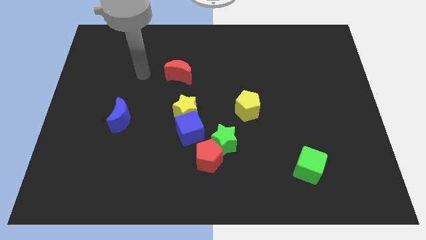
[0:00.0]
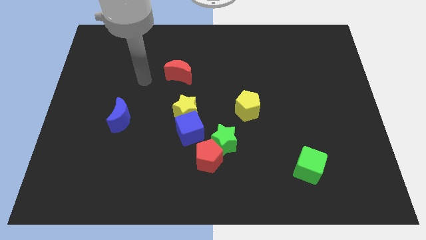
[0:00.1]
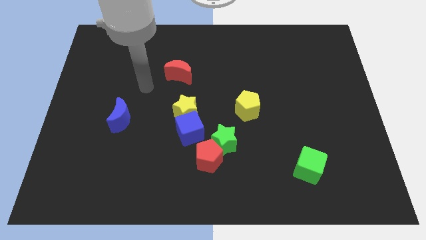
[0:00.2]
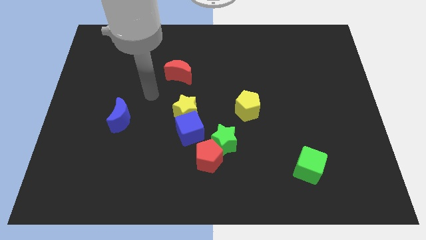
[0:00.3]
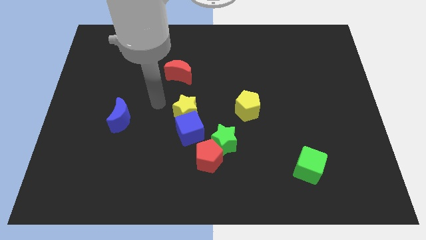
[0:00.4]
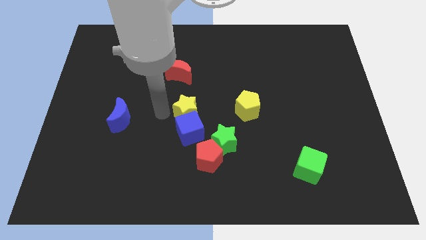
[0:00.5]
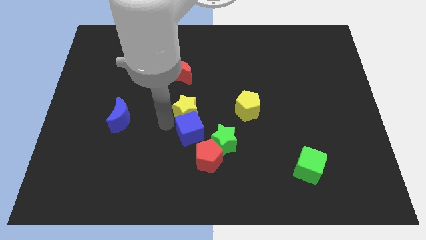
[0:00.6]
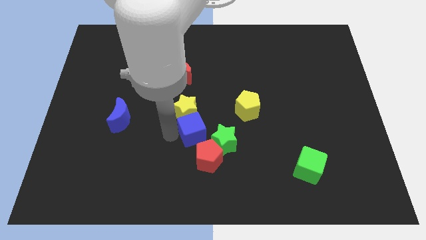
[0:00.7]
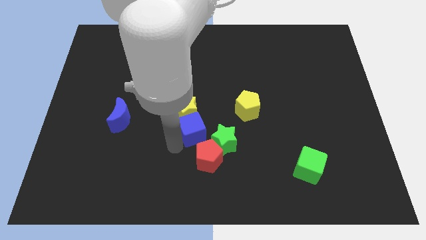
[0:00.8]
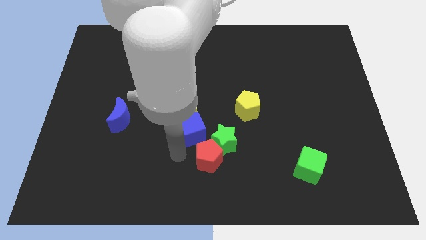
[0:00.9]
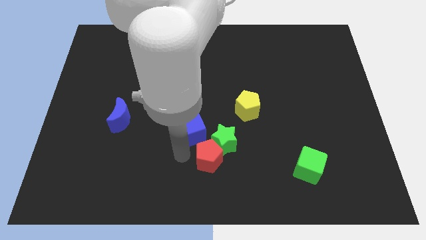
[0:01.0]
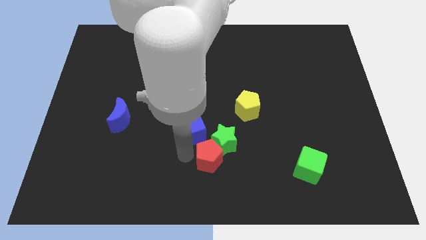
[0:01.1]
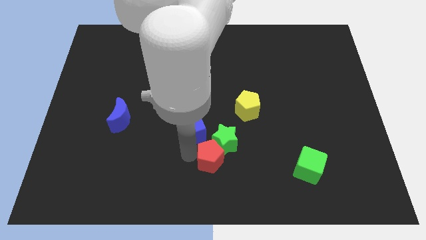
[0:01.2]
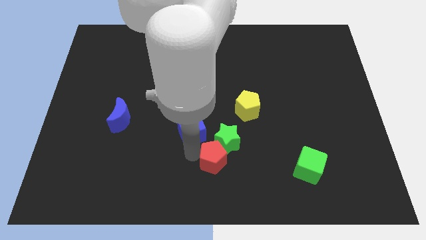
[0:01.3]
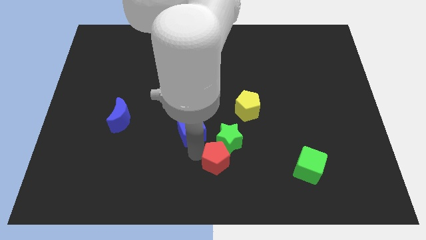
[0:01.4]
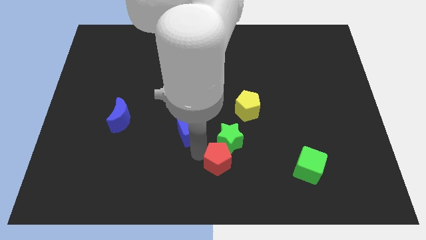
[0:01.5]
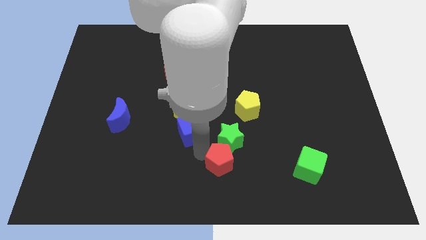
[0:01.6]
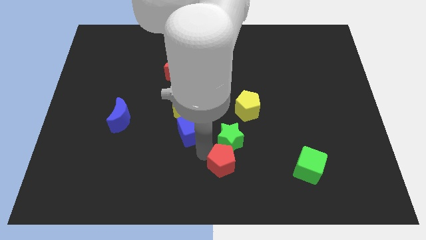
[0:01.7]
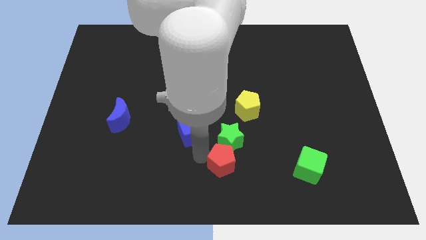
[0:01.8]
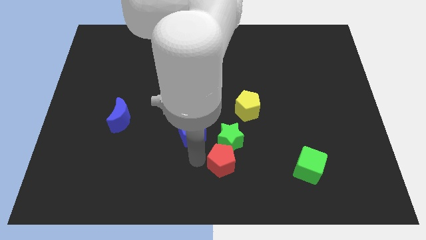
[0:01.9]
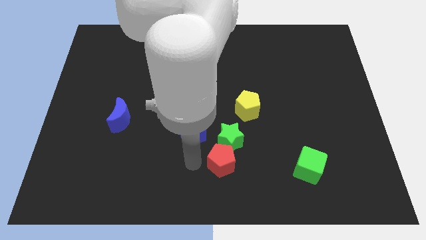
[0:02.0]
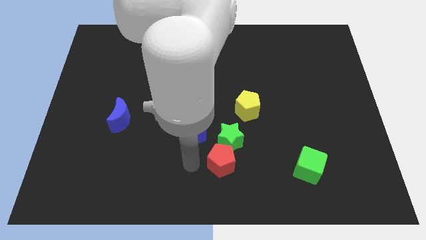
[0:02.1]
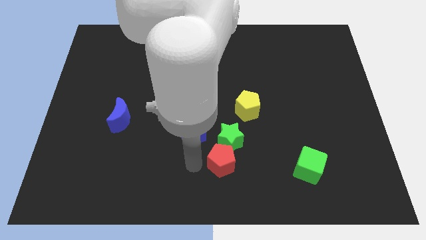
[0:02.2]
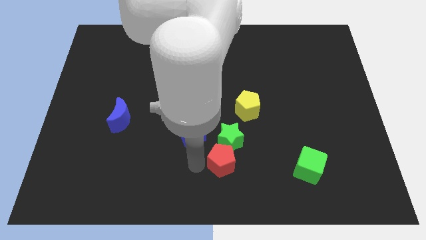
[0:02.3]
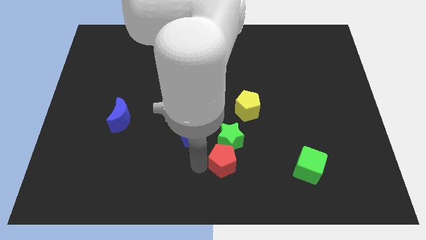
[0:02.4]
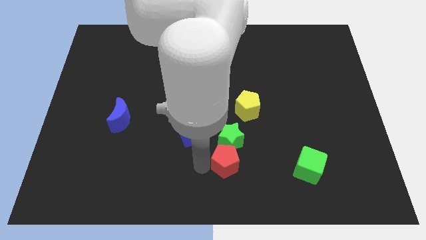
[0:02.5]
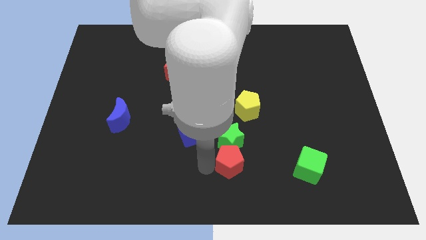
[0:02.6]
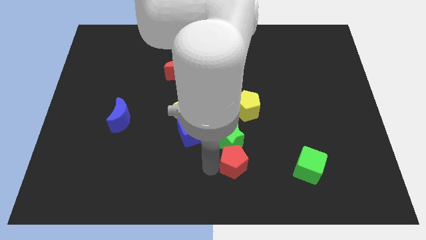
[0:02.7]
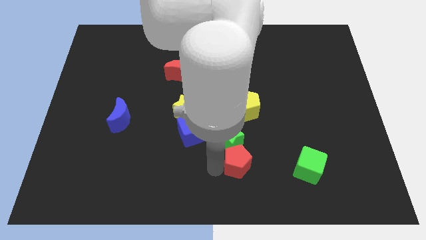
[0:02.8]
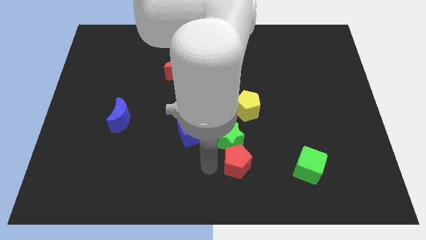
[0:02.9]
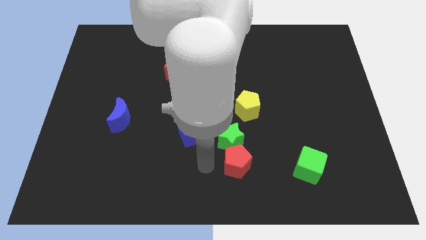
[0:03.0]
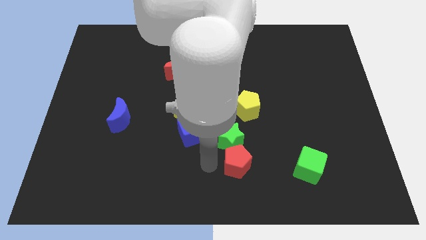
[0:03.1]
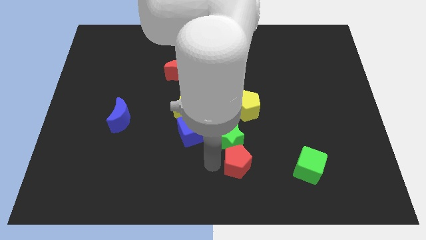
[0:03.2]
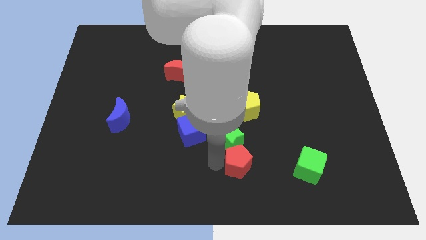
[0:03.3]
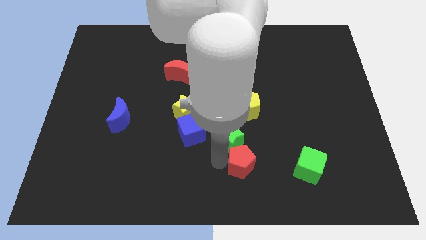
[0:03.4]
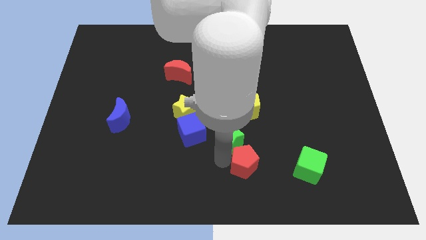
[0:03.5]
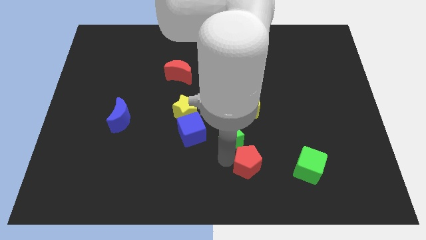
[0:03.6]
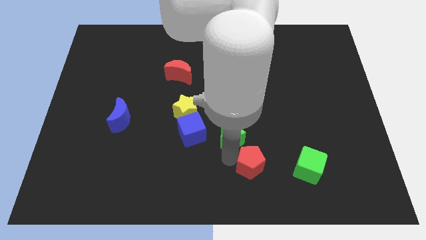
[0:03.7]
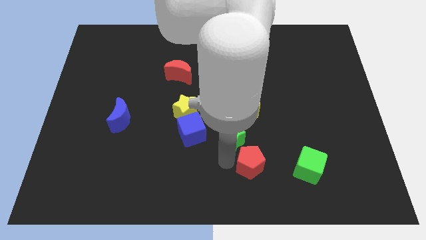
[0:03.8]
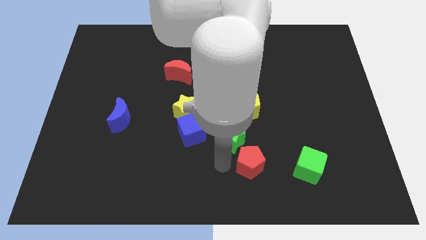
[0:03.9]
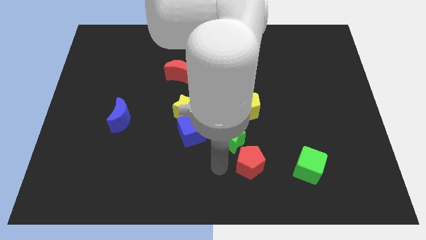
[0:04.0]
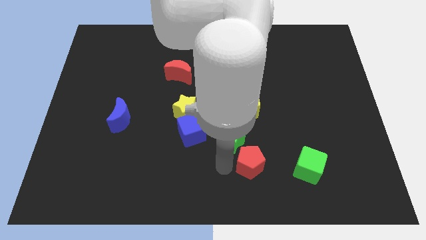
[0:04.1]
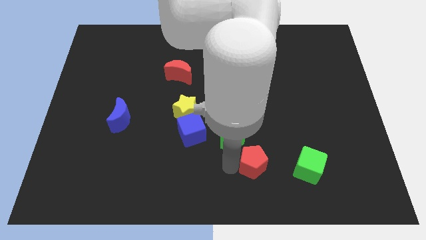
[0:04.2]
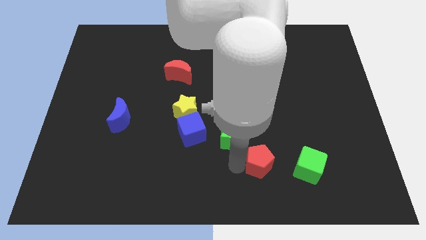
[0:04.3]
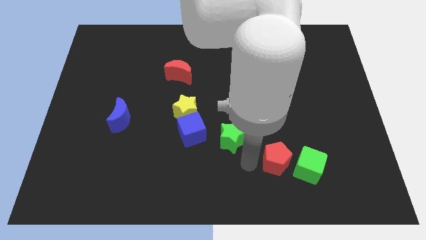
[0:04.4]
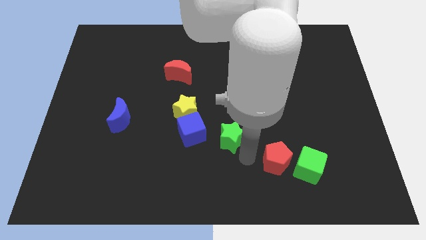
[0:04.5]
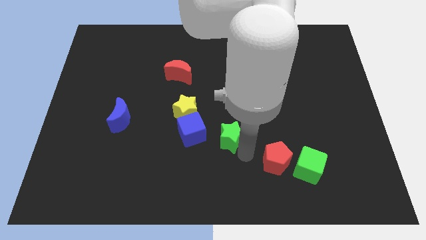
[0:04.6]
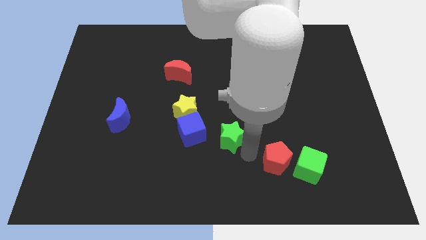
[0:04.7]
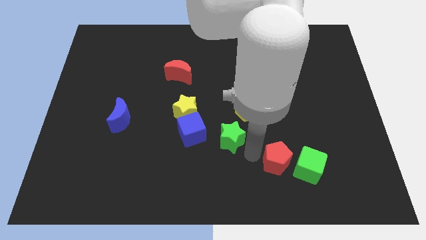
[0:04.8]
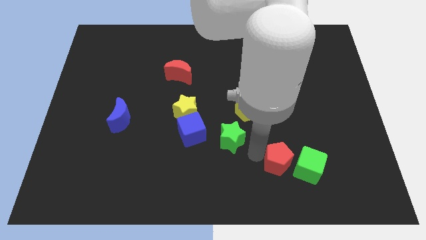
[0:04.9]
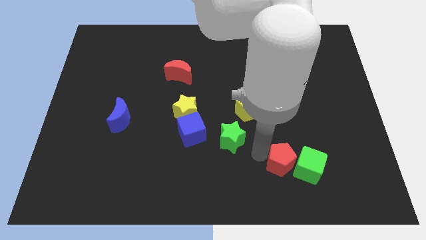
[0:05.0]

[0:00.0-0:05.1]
move the red pentagon close to the green cube

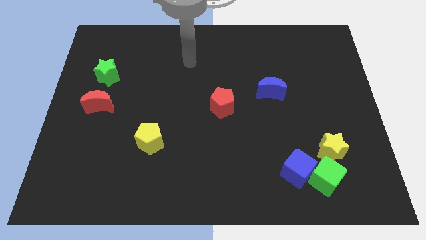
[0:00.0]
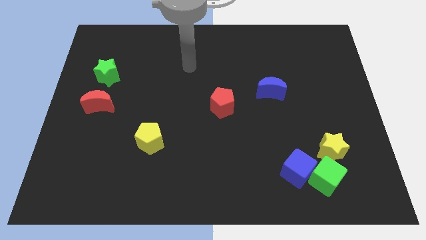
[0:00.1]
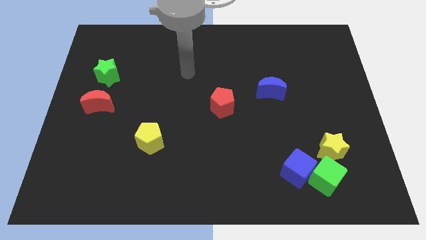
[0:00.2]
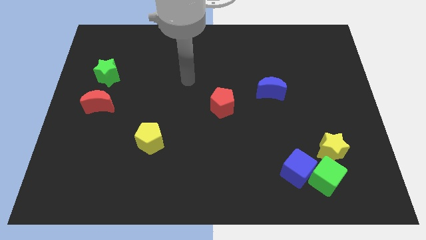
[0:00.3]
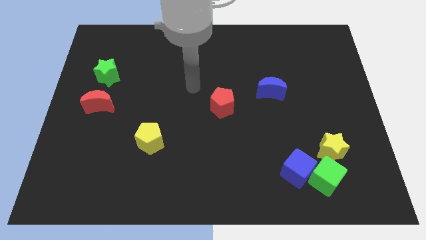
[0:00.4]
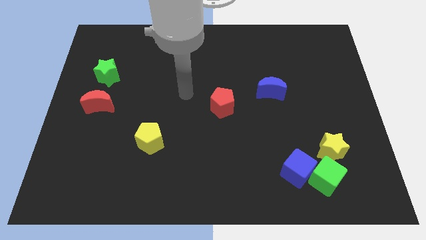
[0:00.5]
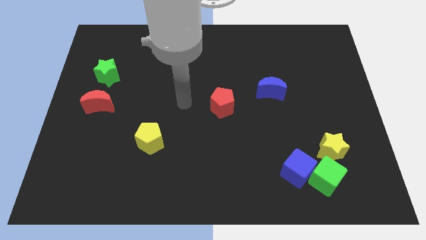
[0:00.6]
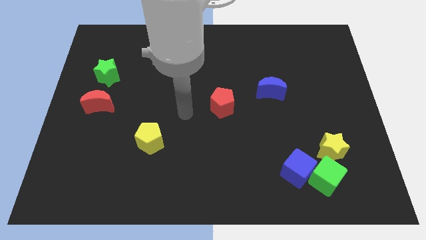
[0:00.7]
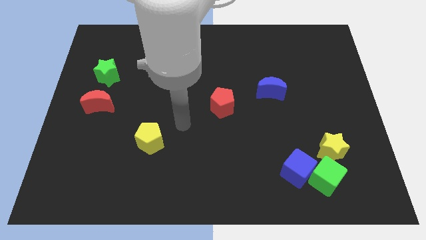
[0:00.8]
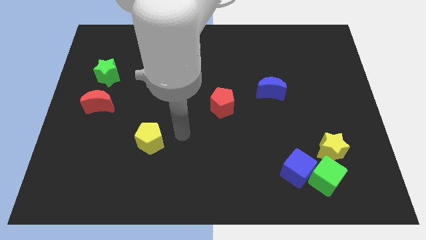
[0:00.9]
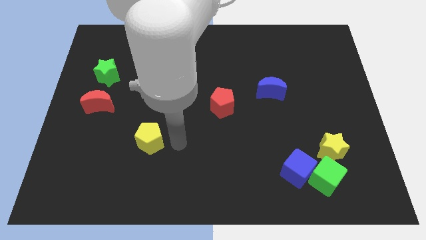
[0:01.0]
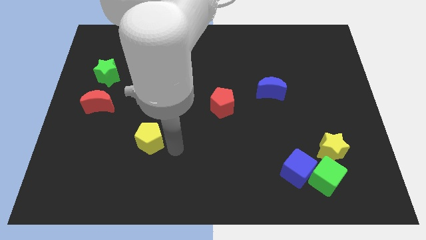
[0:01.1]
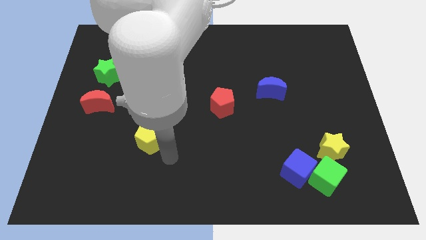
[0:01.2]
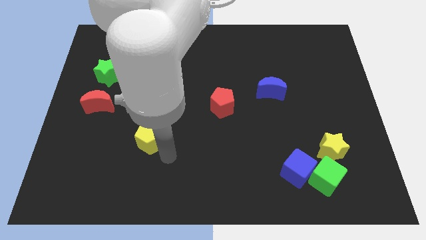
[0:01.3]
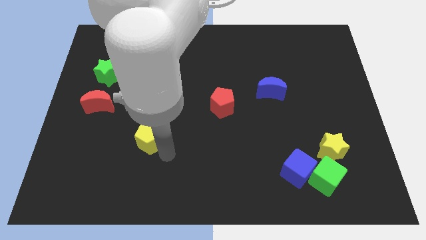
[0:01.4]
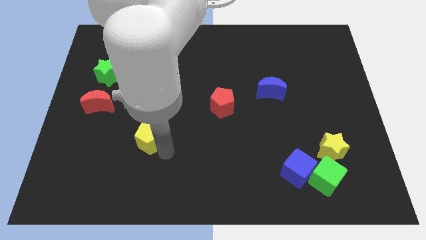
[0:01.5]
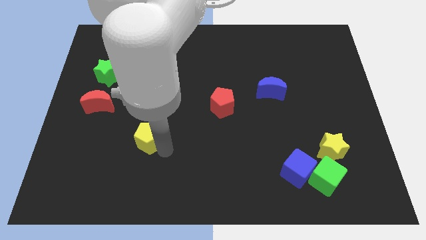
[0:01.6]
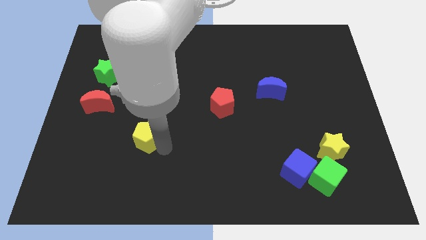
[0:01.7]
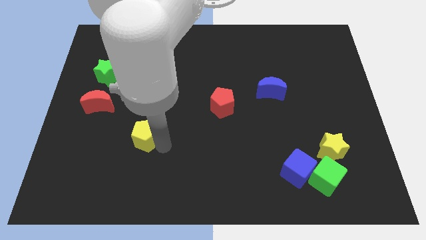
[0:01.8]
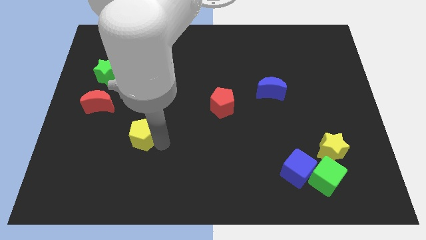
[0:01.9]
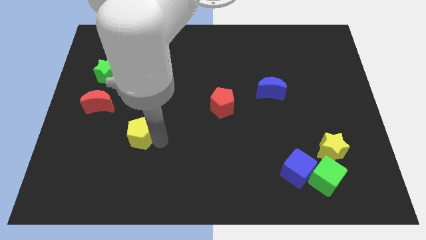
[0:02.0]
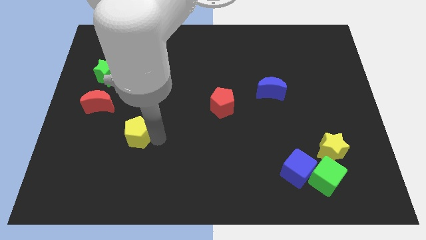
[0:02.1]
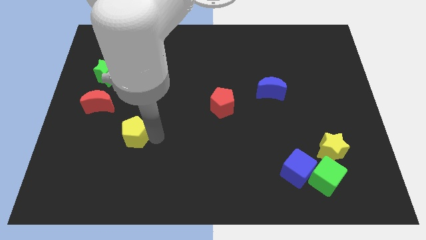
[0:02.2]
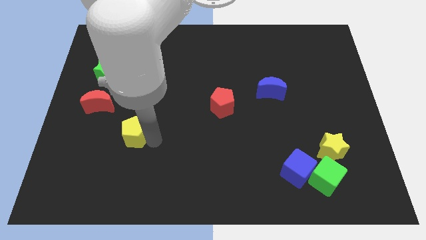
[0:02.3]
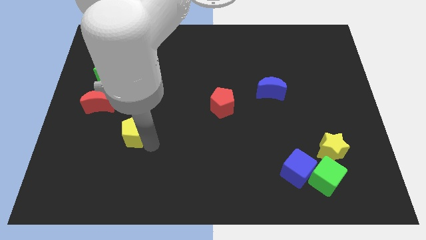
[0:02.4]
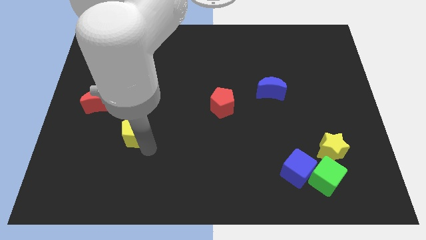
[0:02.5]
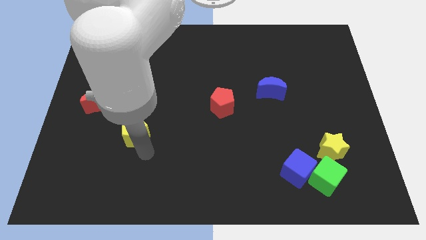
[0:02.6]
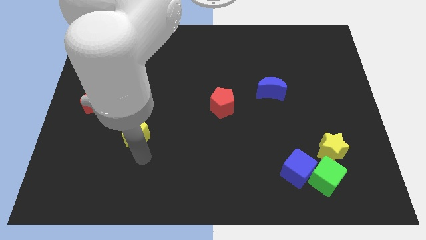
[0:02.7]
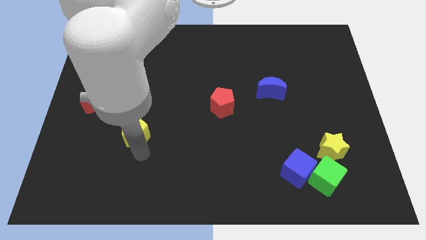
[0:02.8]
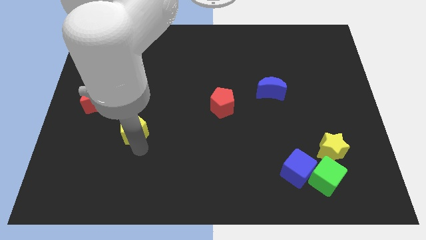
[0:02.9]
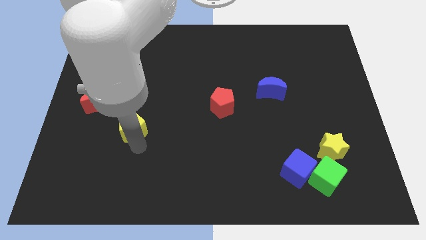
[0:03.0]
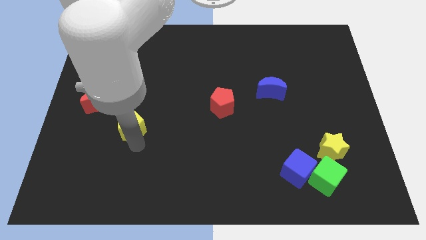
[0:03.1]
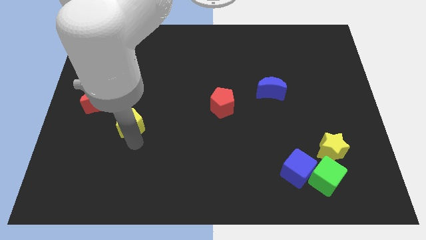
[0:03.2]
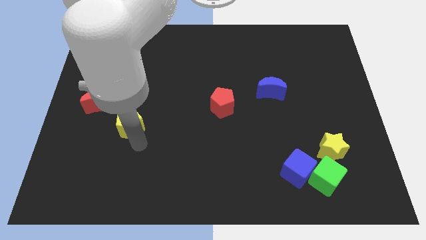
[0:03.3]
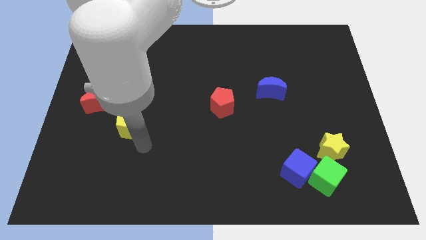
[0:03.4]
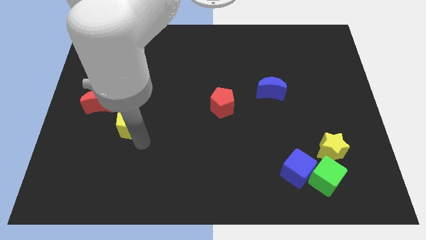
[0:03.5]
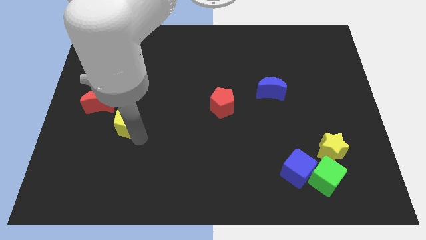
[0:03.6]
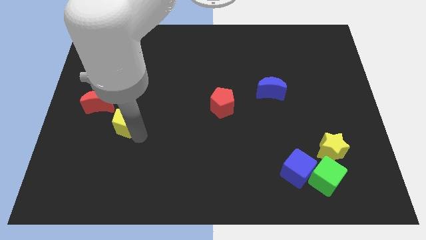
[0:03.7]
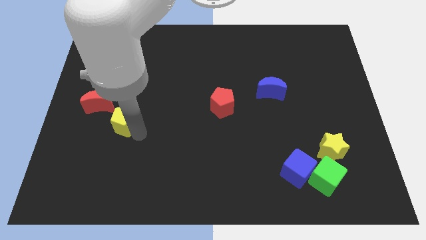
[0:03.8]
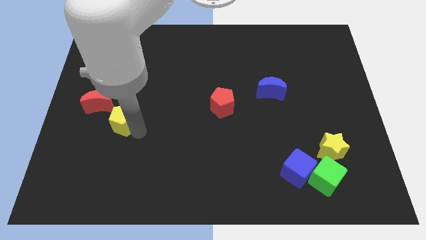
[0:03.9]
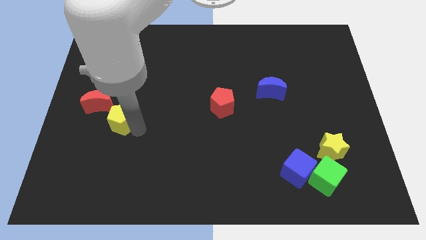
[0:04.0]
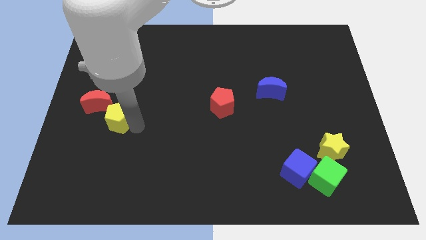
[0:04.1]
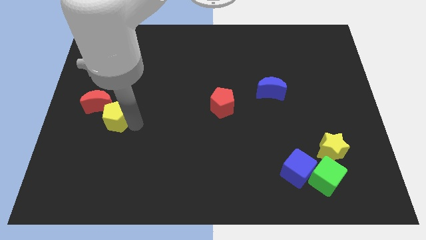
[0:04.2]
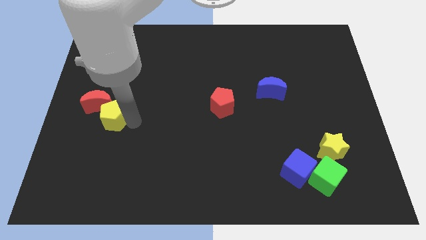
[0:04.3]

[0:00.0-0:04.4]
slide the yellow pentagon to the red moon
